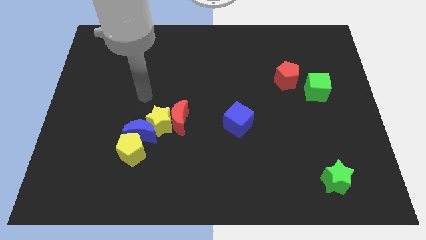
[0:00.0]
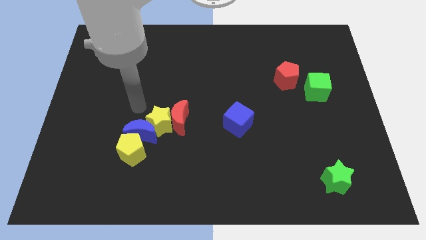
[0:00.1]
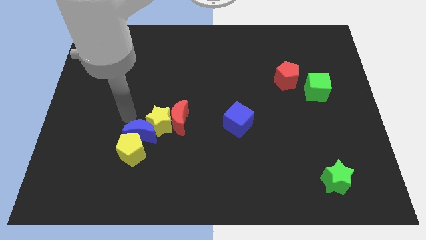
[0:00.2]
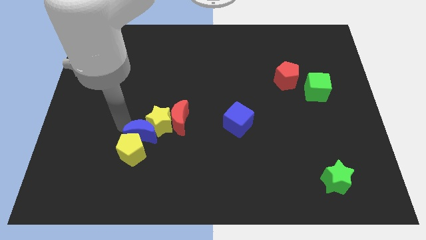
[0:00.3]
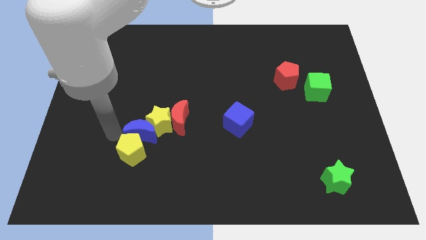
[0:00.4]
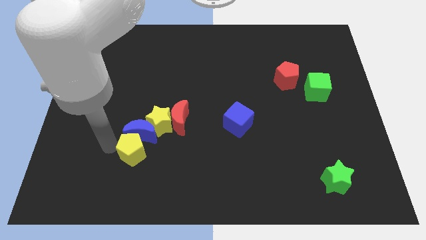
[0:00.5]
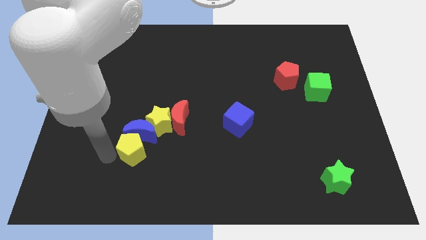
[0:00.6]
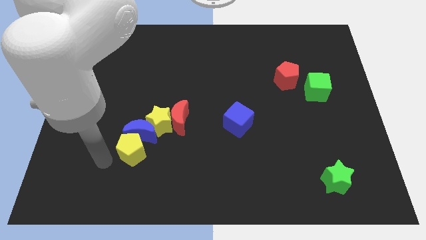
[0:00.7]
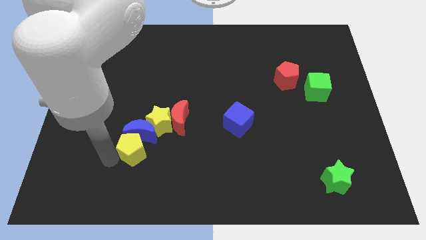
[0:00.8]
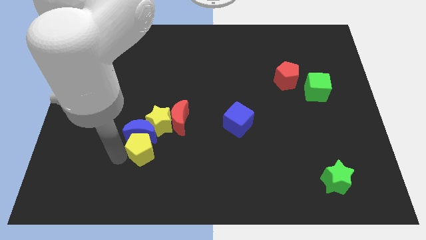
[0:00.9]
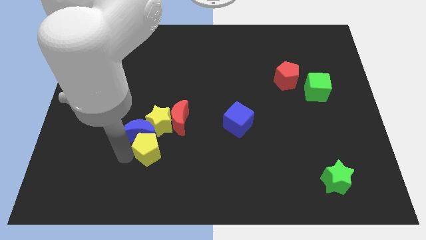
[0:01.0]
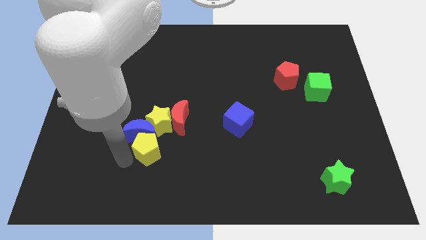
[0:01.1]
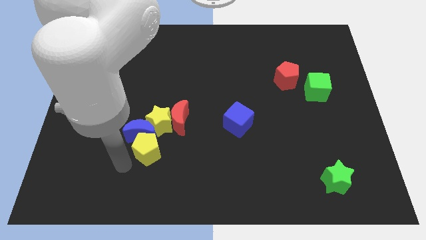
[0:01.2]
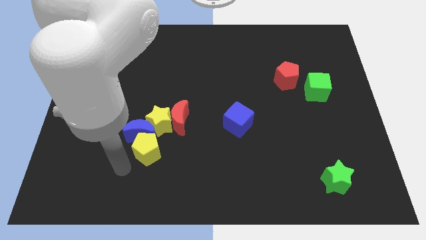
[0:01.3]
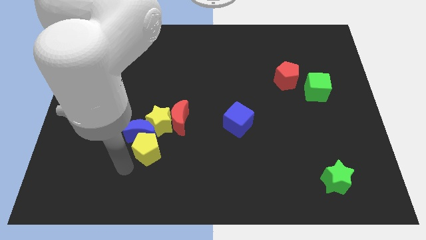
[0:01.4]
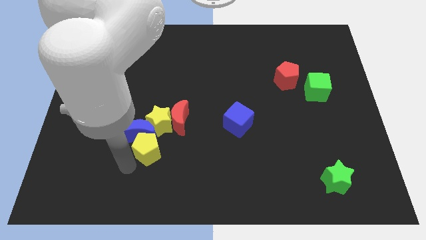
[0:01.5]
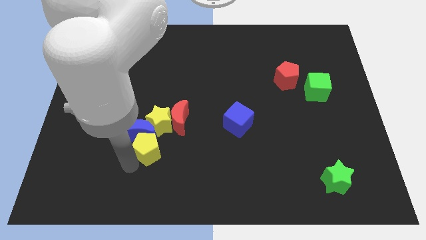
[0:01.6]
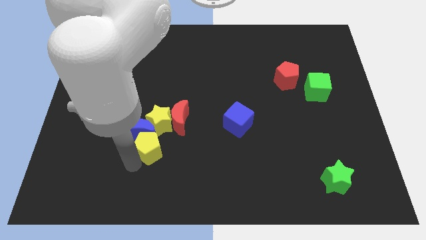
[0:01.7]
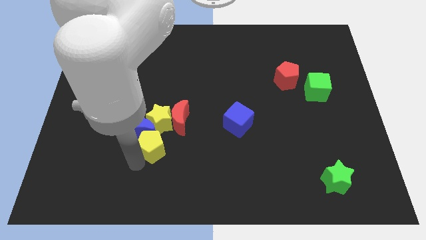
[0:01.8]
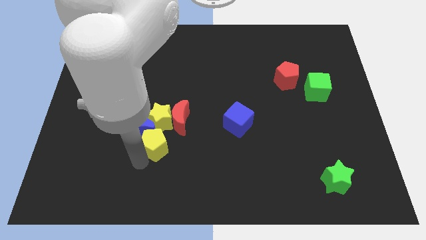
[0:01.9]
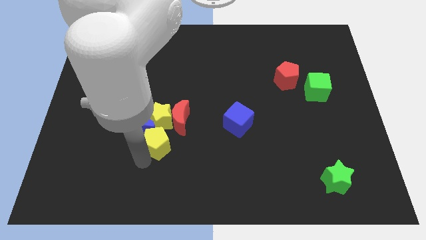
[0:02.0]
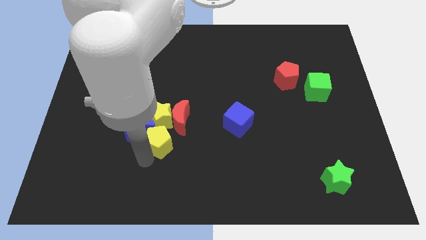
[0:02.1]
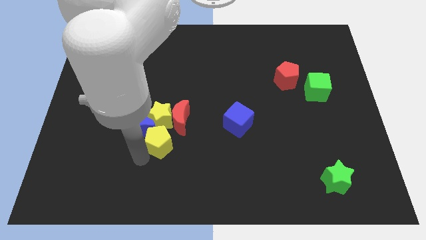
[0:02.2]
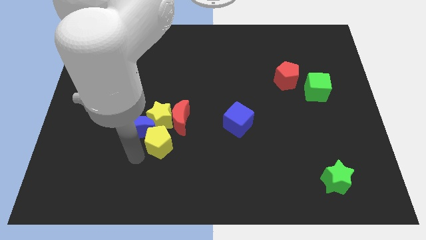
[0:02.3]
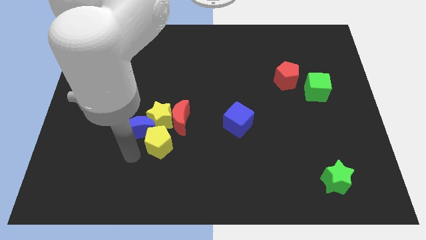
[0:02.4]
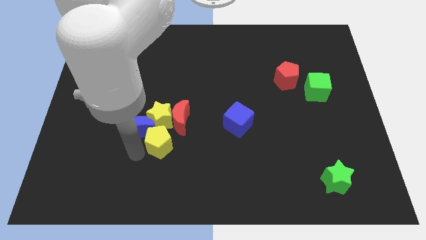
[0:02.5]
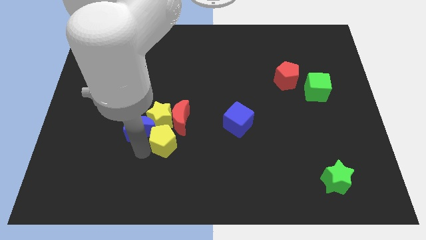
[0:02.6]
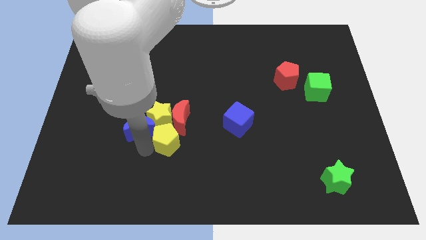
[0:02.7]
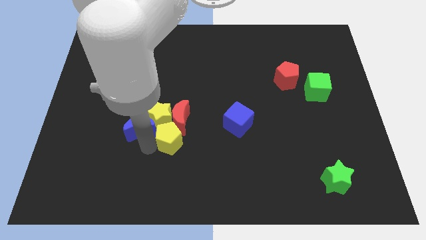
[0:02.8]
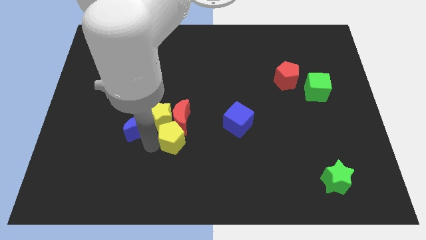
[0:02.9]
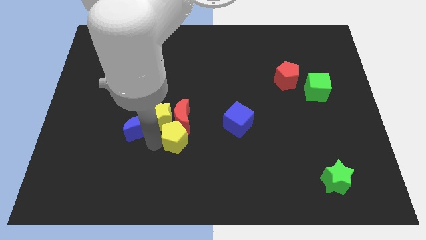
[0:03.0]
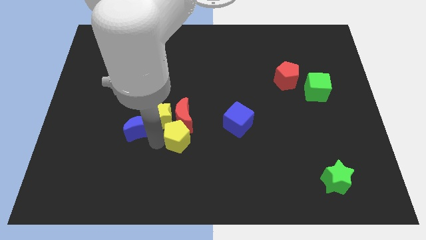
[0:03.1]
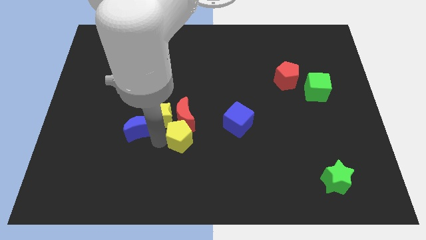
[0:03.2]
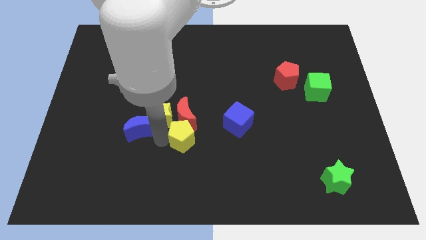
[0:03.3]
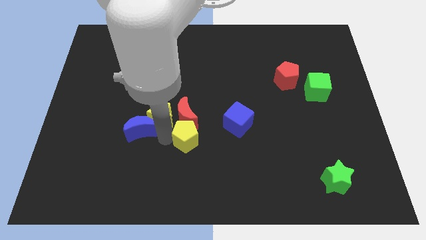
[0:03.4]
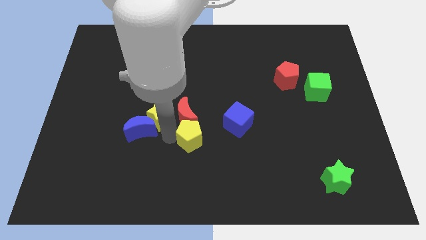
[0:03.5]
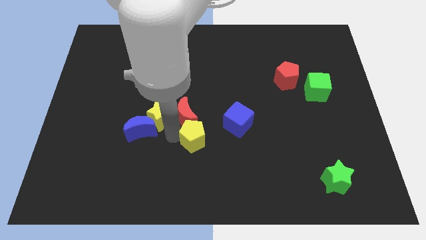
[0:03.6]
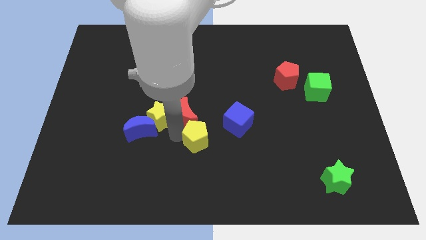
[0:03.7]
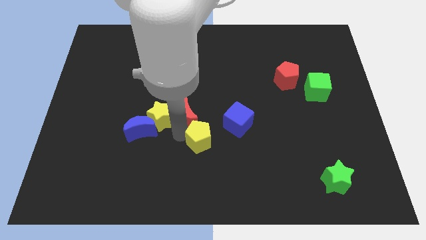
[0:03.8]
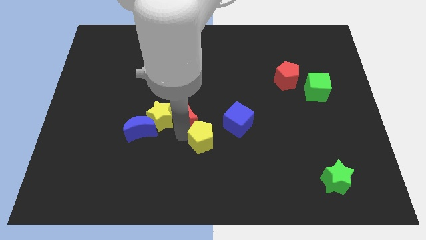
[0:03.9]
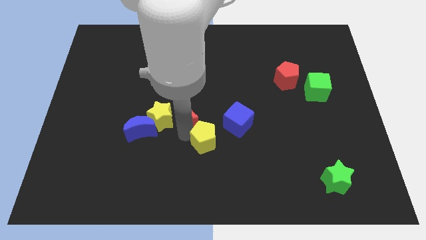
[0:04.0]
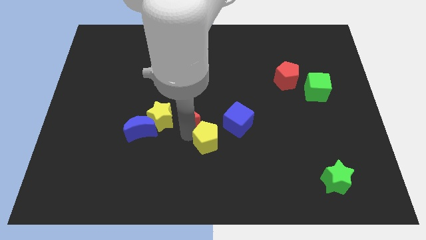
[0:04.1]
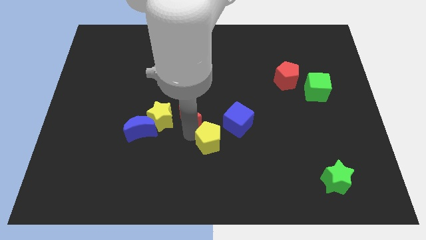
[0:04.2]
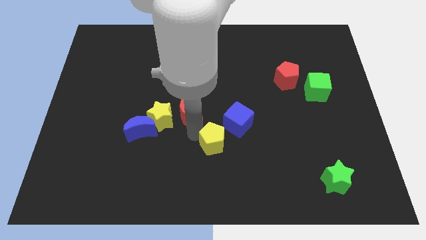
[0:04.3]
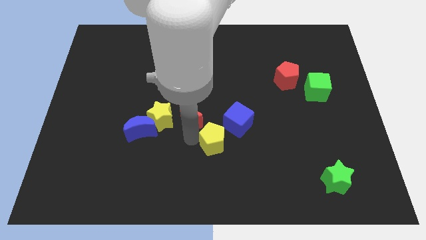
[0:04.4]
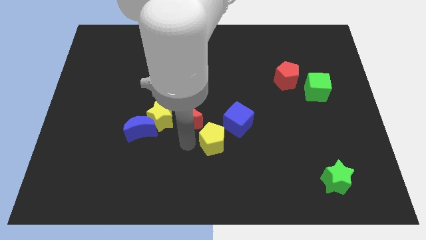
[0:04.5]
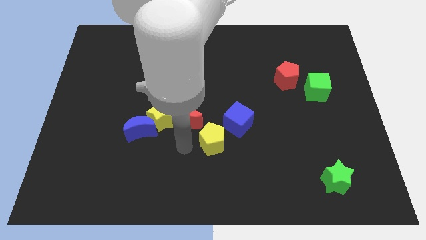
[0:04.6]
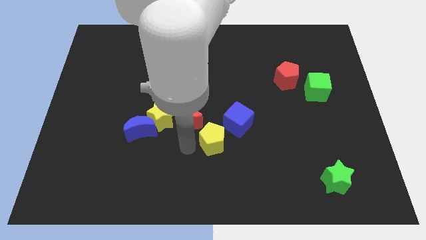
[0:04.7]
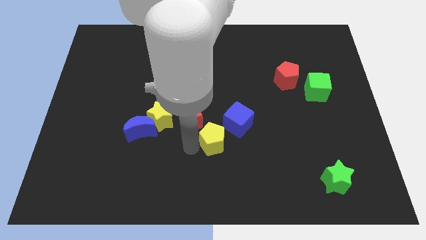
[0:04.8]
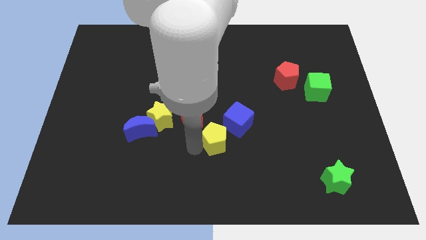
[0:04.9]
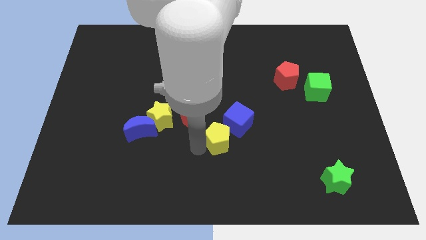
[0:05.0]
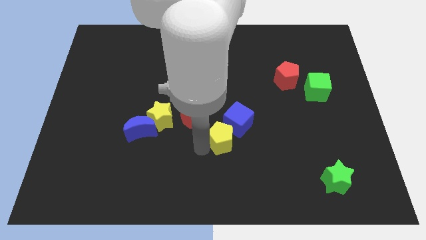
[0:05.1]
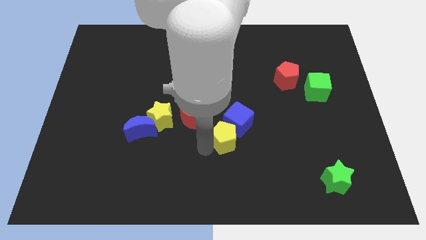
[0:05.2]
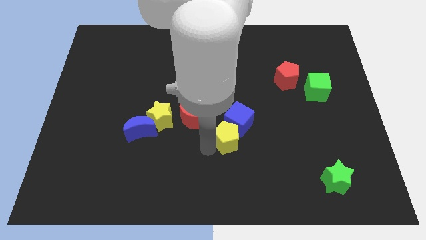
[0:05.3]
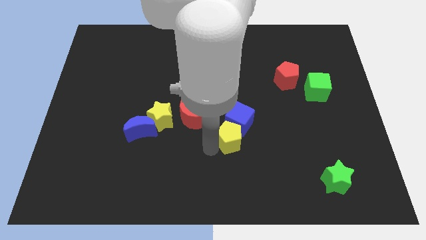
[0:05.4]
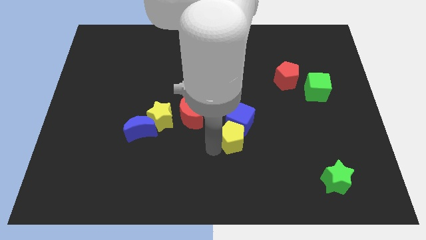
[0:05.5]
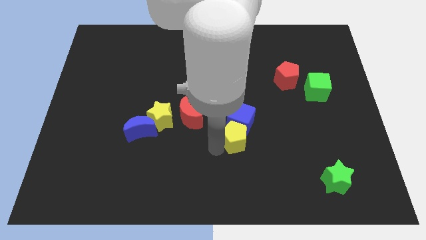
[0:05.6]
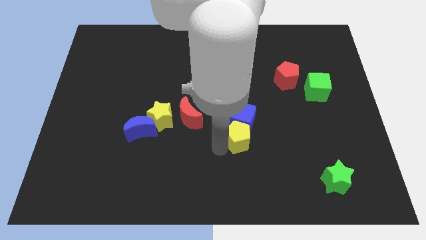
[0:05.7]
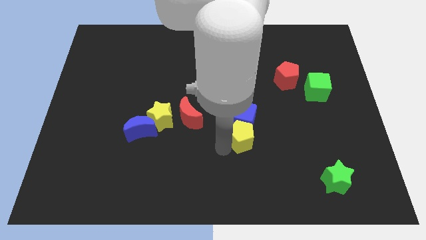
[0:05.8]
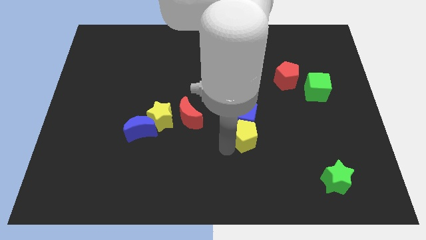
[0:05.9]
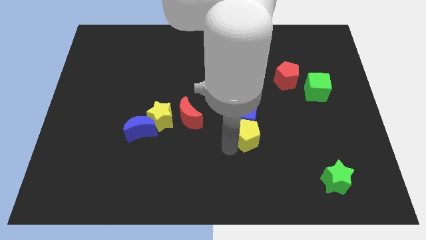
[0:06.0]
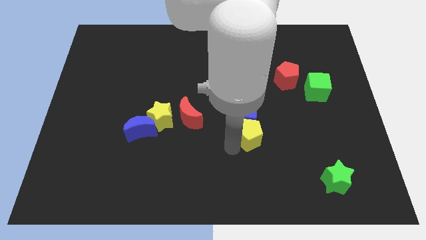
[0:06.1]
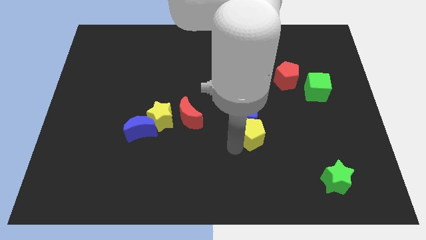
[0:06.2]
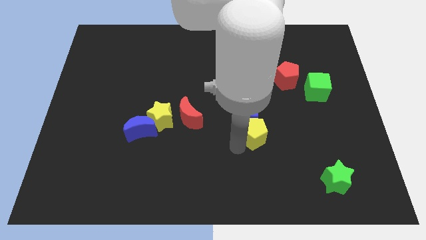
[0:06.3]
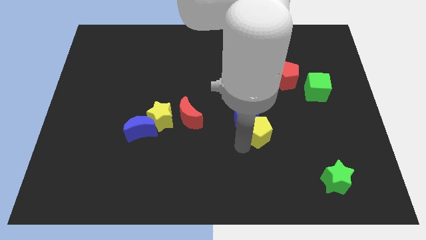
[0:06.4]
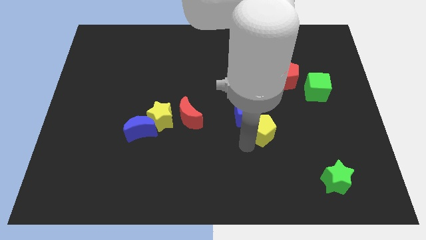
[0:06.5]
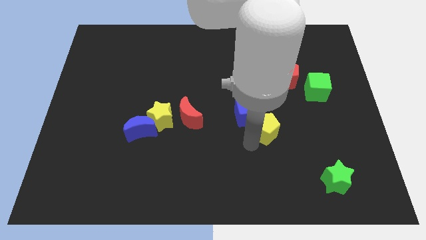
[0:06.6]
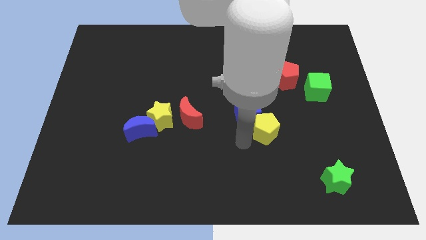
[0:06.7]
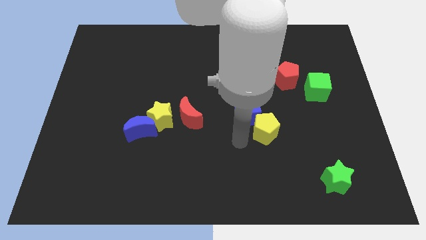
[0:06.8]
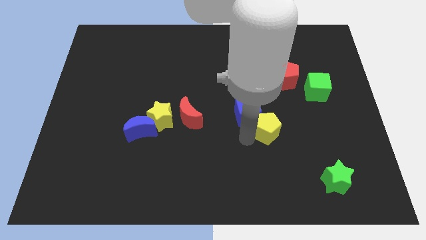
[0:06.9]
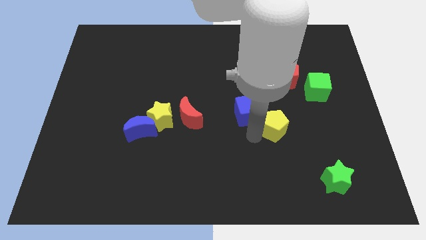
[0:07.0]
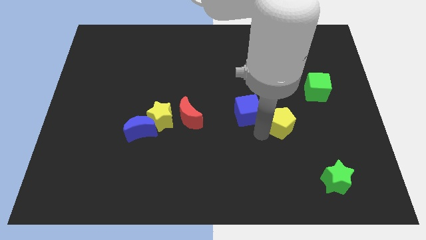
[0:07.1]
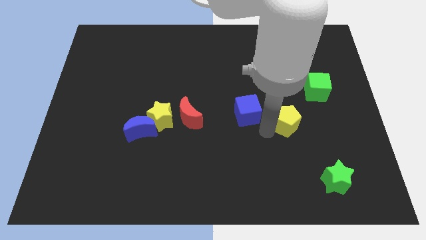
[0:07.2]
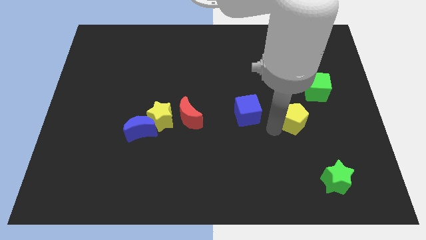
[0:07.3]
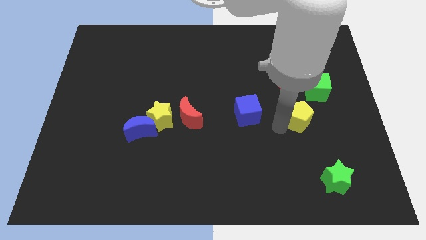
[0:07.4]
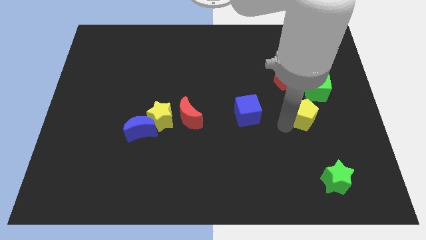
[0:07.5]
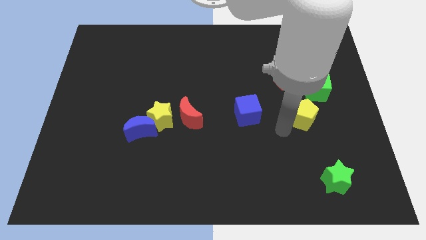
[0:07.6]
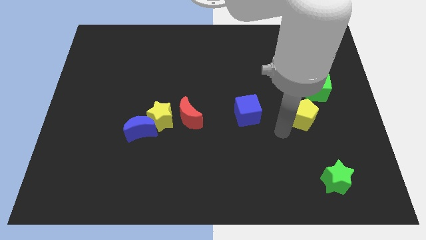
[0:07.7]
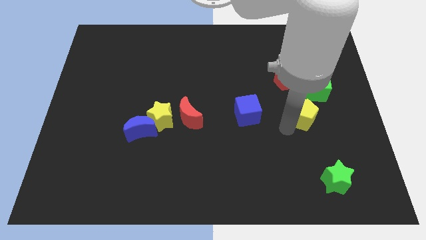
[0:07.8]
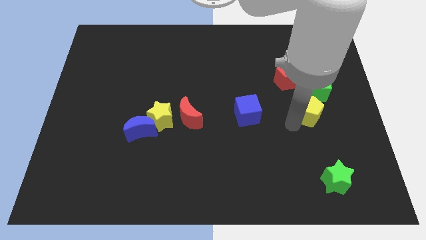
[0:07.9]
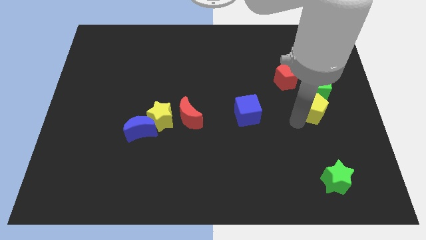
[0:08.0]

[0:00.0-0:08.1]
move the yellow pentagon diagonally down and to the right of the red pentagon
